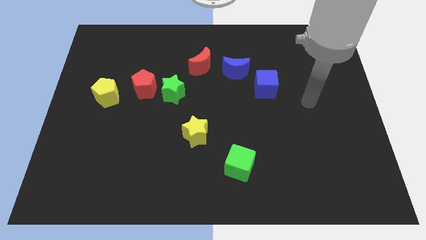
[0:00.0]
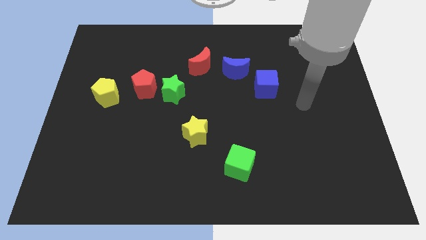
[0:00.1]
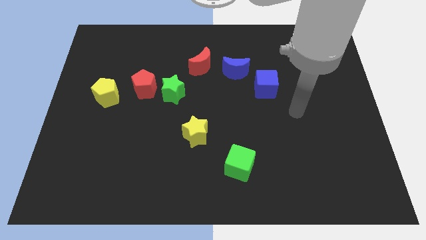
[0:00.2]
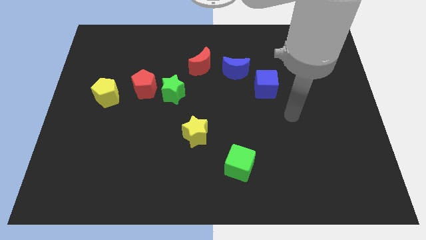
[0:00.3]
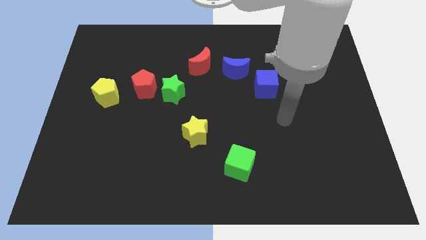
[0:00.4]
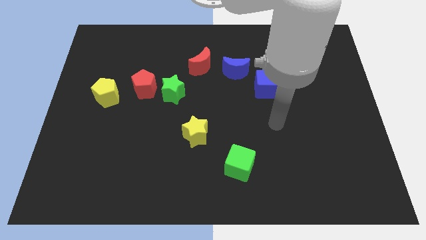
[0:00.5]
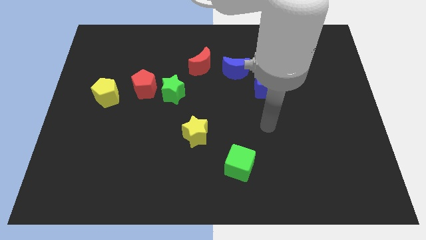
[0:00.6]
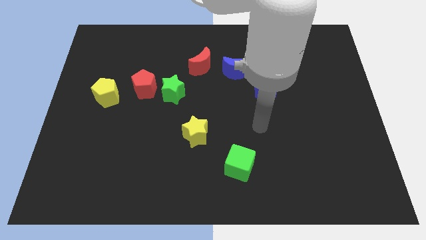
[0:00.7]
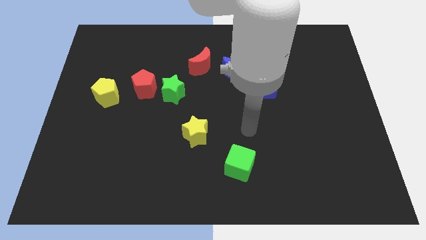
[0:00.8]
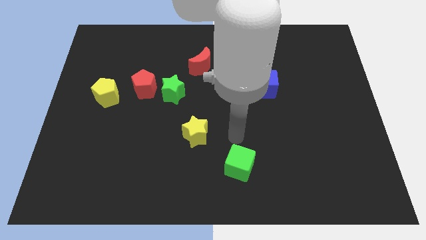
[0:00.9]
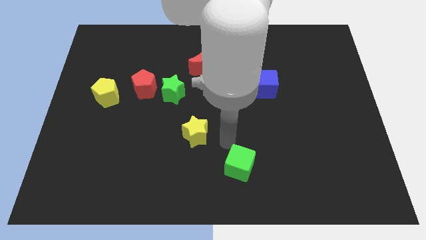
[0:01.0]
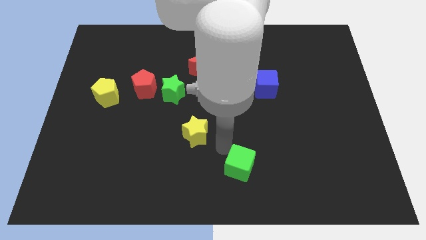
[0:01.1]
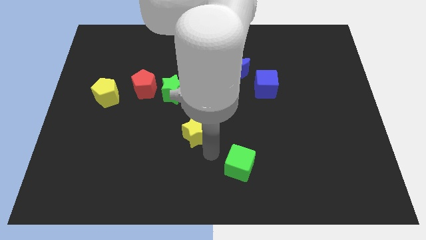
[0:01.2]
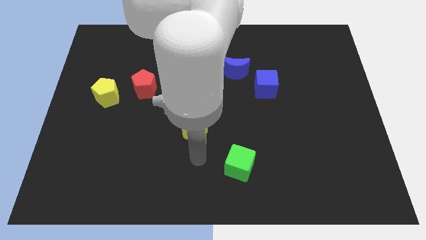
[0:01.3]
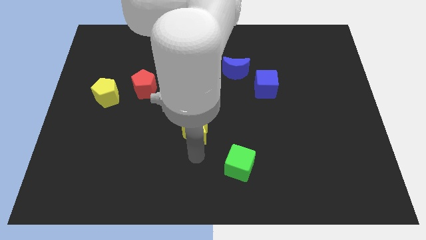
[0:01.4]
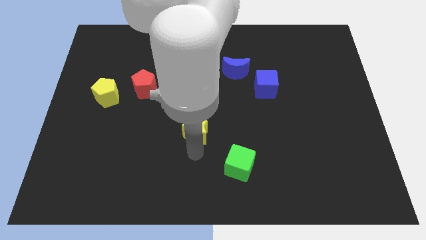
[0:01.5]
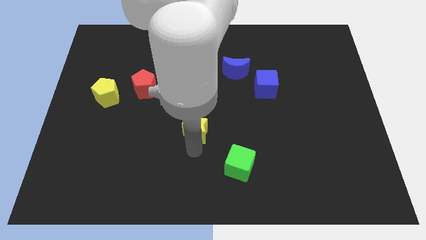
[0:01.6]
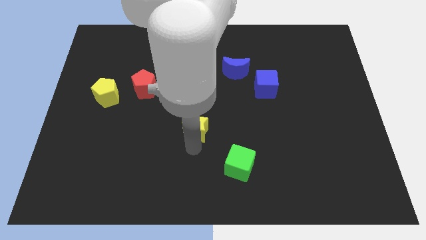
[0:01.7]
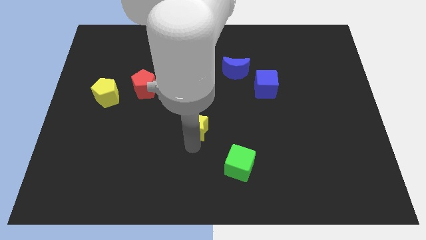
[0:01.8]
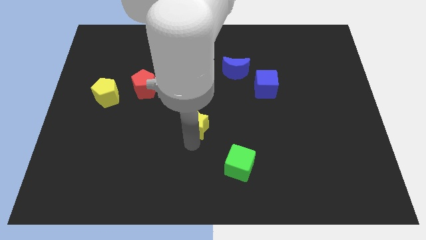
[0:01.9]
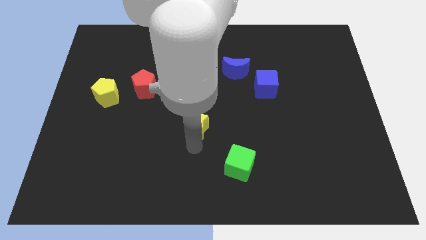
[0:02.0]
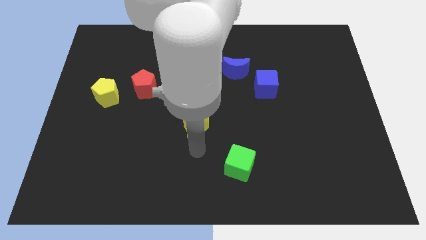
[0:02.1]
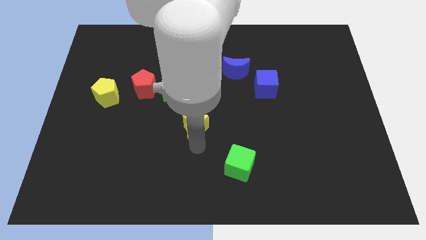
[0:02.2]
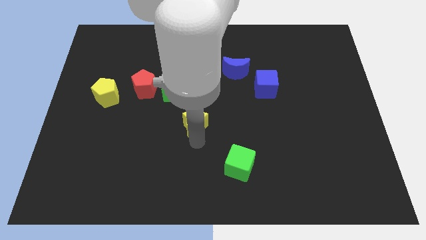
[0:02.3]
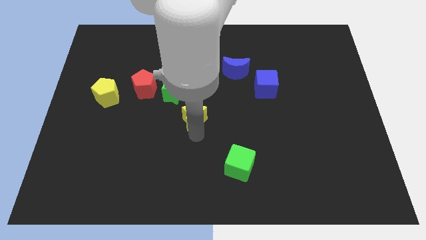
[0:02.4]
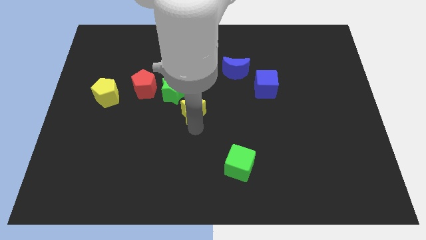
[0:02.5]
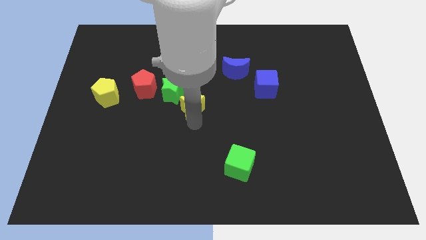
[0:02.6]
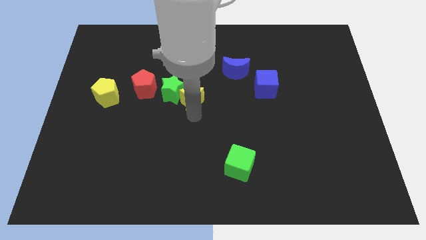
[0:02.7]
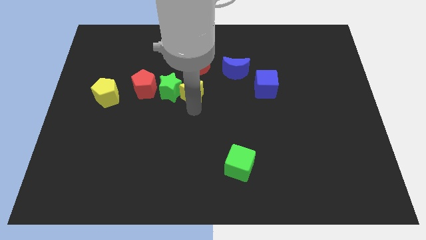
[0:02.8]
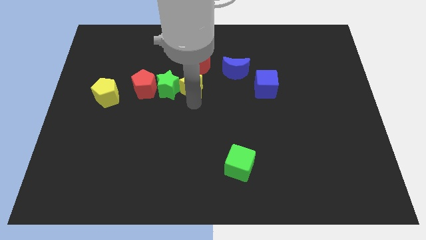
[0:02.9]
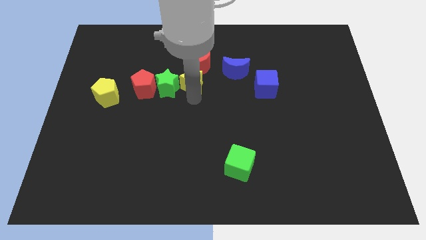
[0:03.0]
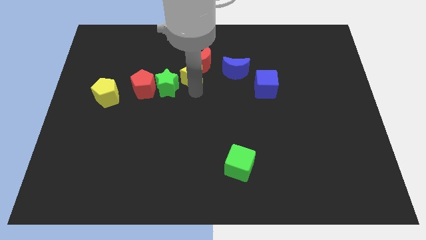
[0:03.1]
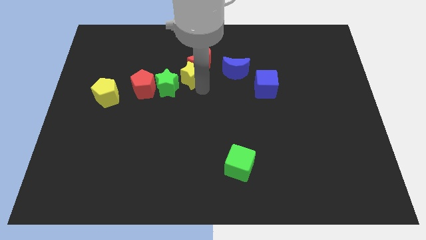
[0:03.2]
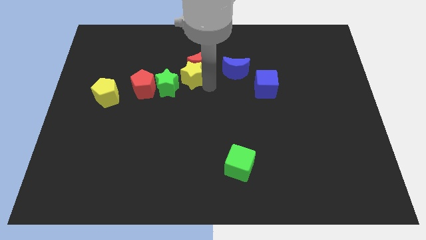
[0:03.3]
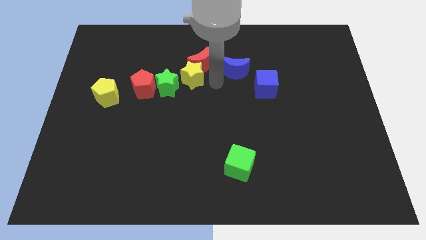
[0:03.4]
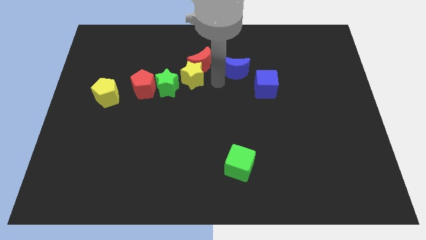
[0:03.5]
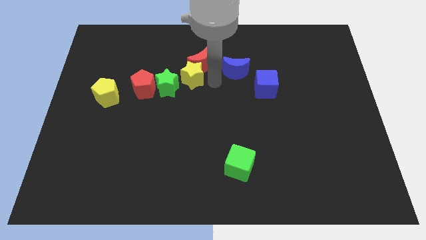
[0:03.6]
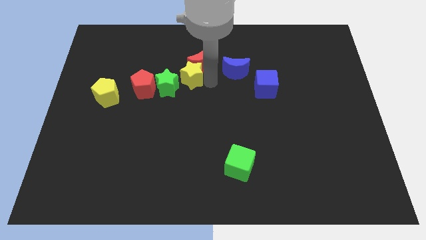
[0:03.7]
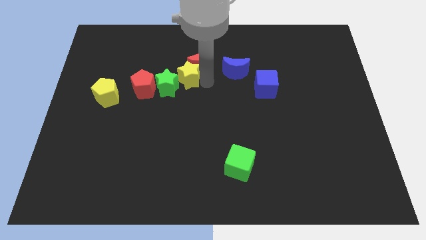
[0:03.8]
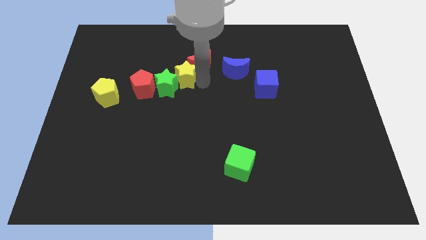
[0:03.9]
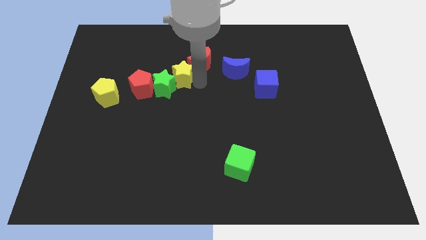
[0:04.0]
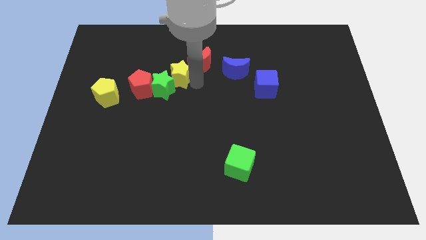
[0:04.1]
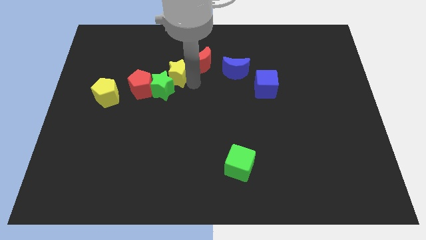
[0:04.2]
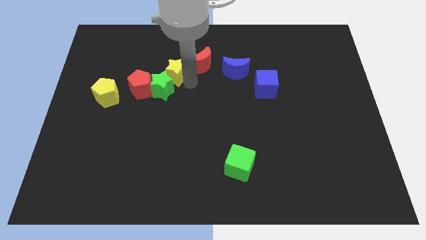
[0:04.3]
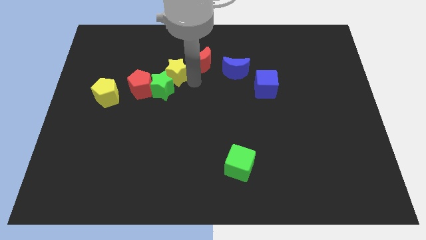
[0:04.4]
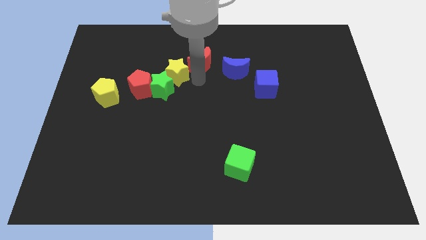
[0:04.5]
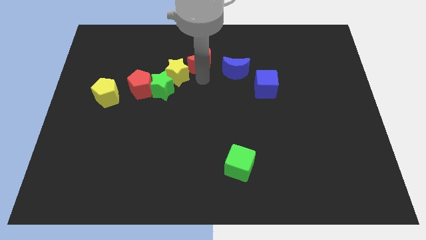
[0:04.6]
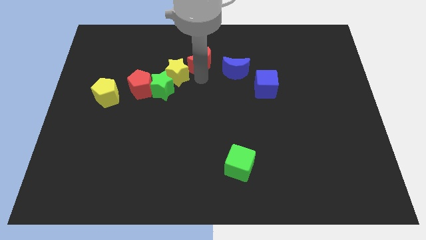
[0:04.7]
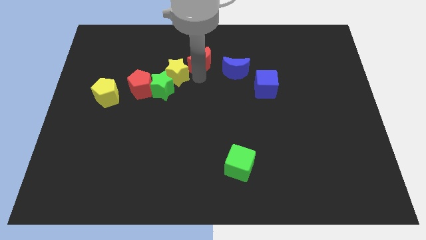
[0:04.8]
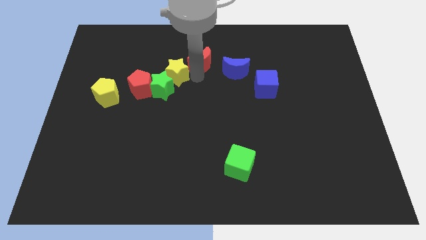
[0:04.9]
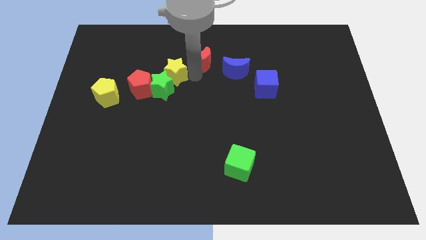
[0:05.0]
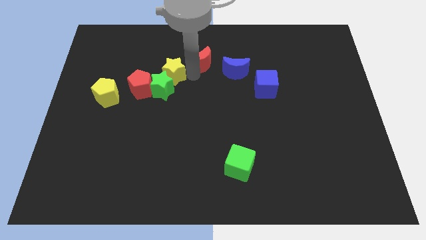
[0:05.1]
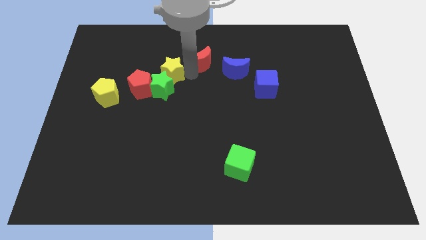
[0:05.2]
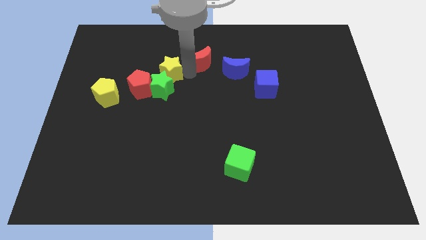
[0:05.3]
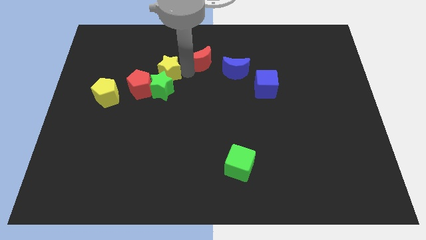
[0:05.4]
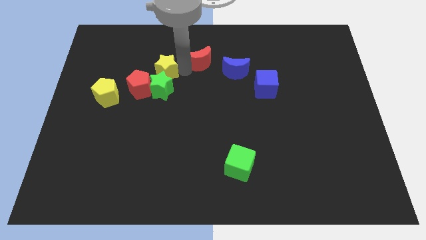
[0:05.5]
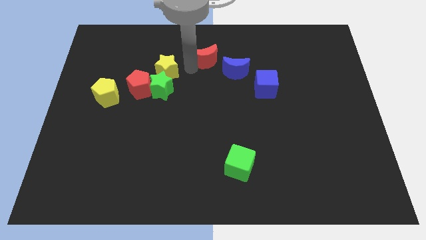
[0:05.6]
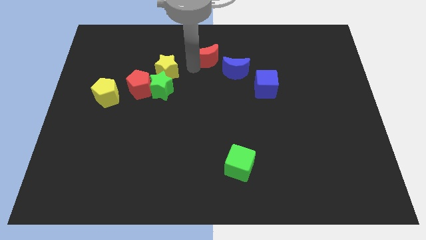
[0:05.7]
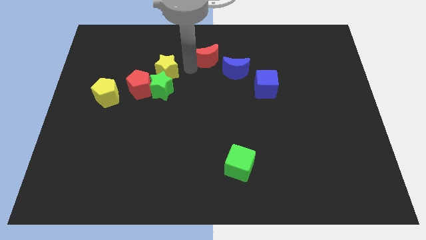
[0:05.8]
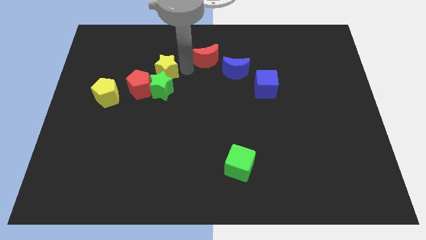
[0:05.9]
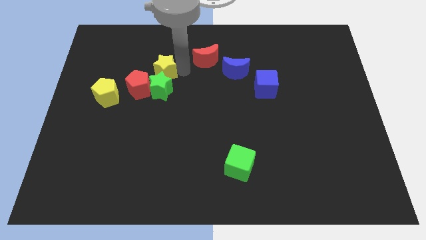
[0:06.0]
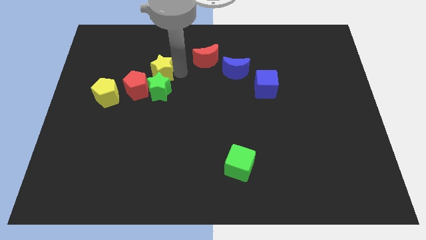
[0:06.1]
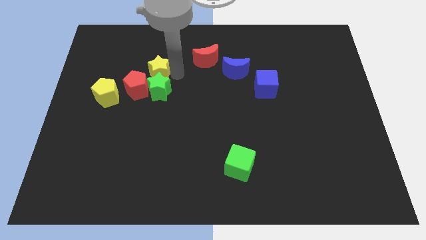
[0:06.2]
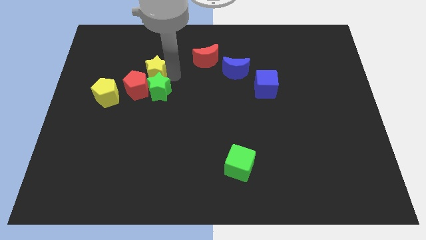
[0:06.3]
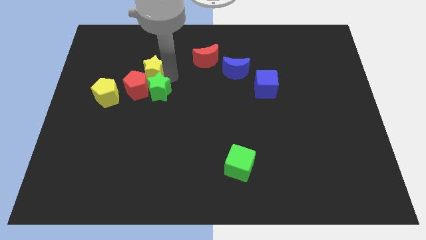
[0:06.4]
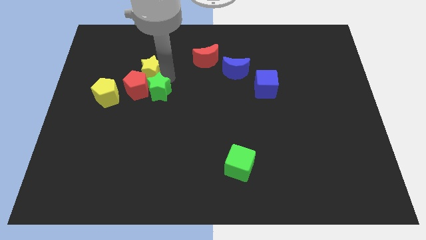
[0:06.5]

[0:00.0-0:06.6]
slide the yellow star upwards and to the left diagonally

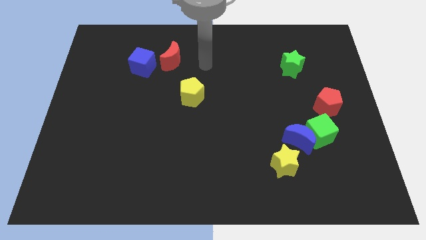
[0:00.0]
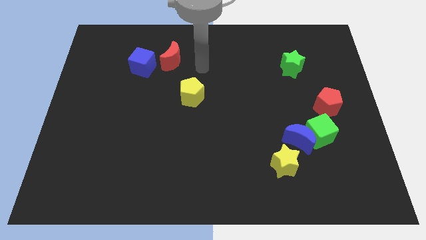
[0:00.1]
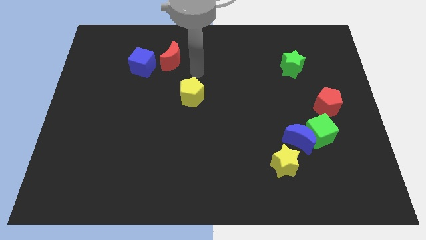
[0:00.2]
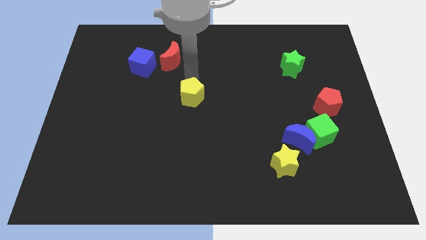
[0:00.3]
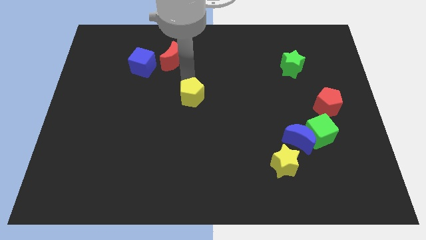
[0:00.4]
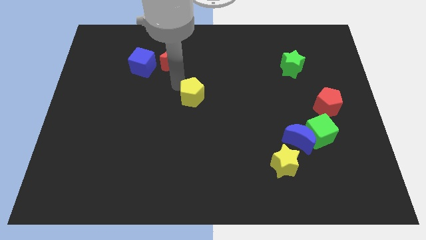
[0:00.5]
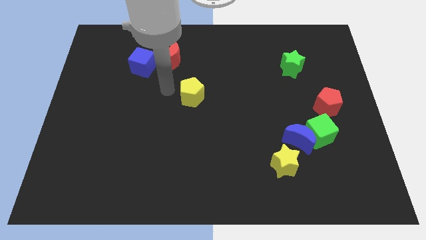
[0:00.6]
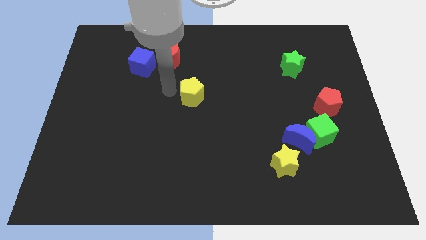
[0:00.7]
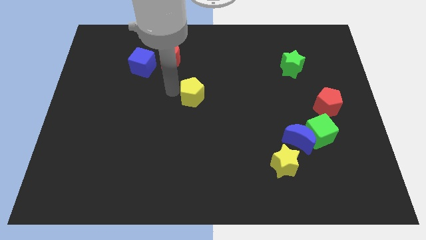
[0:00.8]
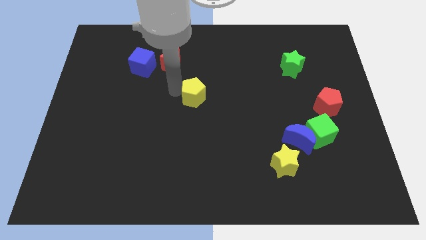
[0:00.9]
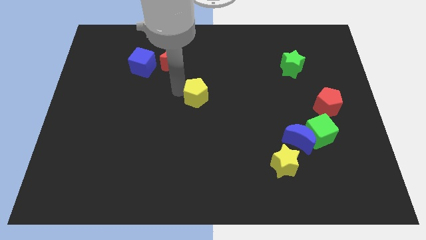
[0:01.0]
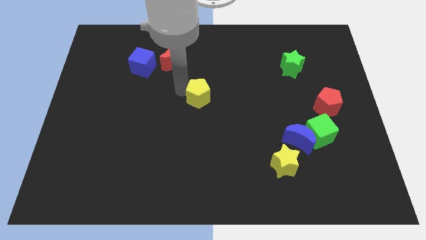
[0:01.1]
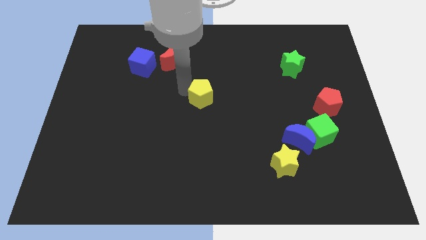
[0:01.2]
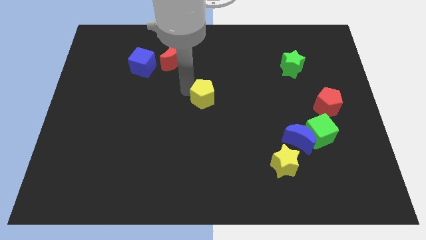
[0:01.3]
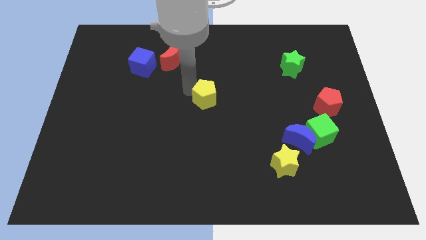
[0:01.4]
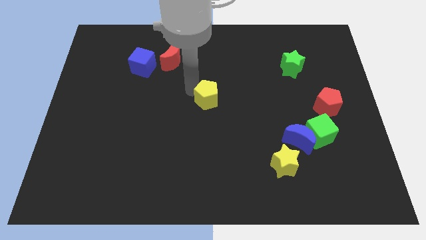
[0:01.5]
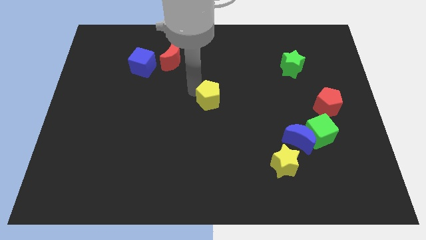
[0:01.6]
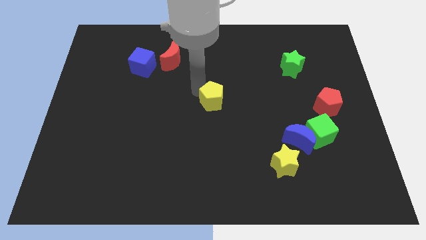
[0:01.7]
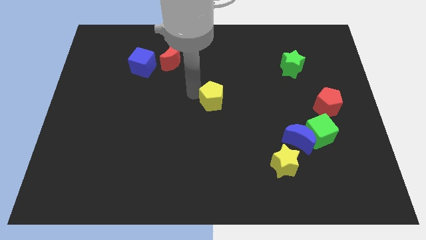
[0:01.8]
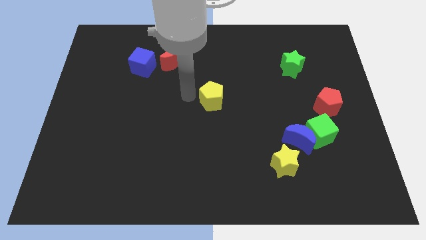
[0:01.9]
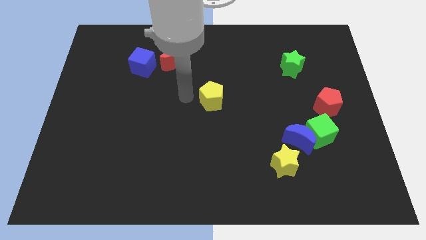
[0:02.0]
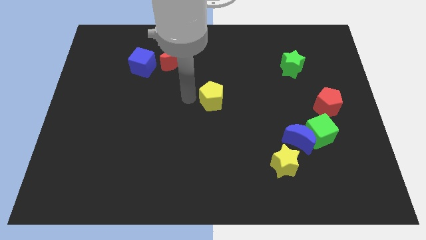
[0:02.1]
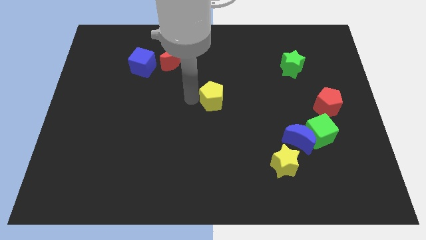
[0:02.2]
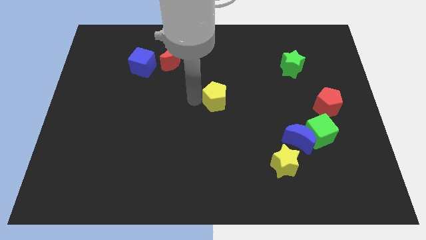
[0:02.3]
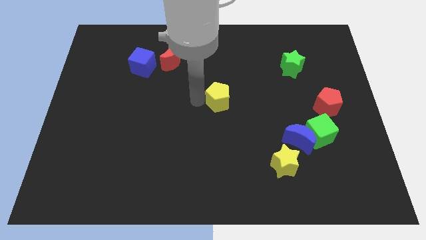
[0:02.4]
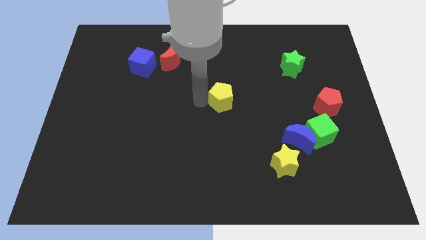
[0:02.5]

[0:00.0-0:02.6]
move the yellow pentagon right a little
